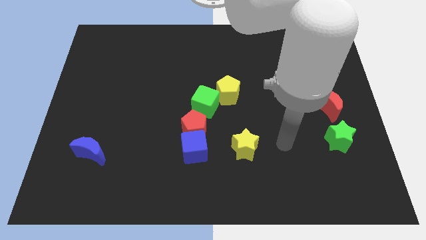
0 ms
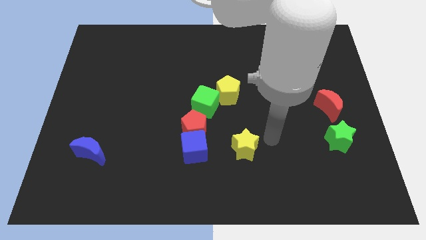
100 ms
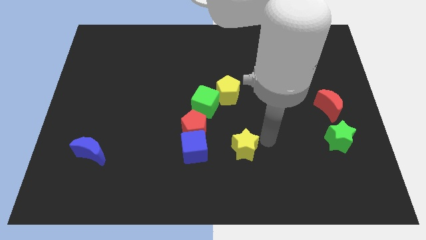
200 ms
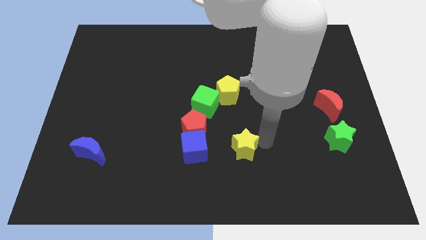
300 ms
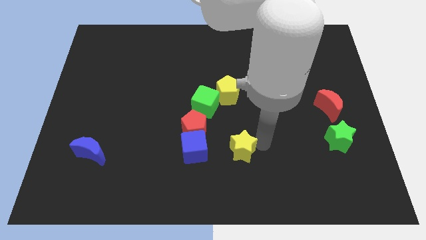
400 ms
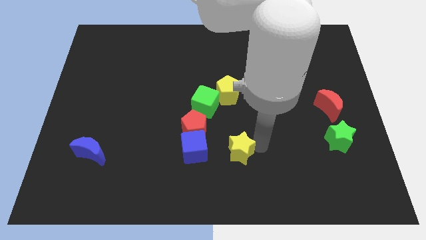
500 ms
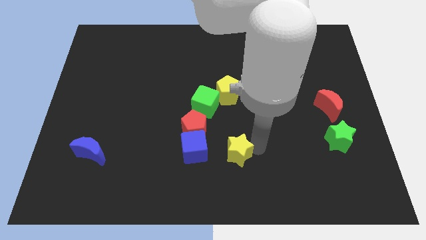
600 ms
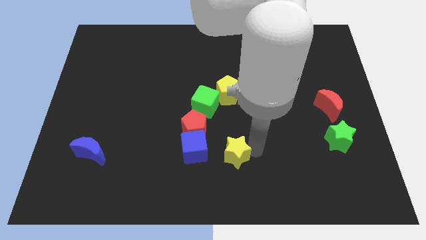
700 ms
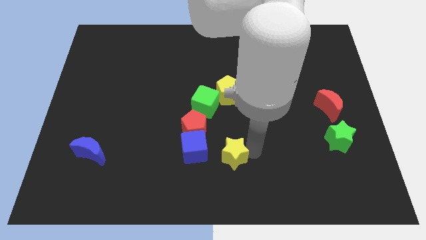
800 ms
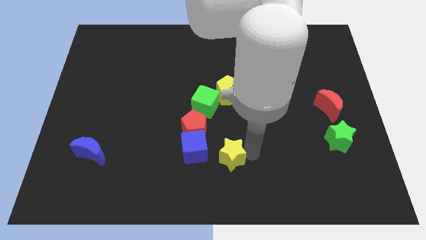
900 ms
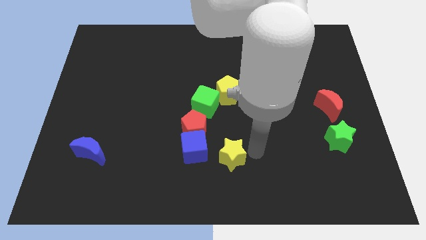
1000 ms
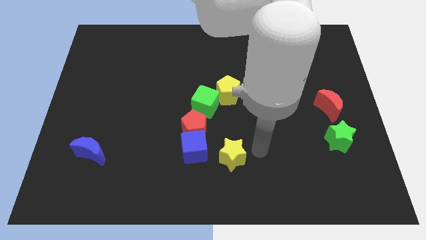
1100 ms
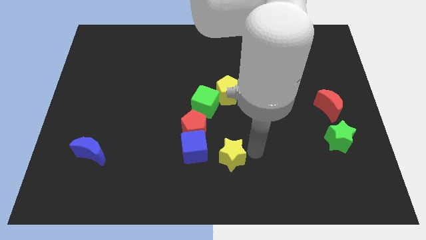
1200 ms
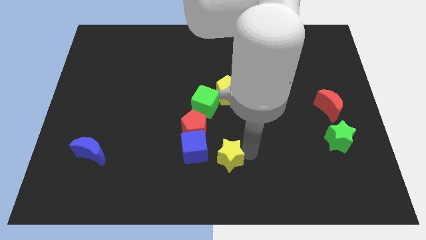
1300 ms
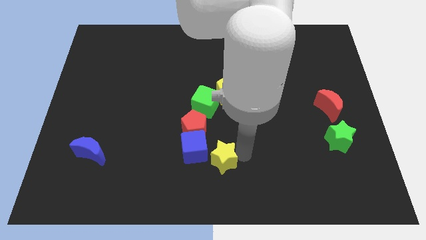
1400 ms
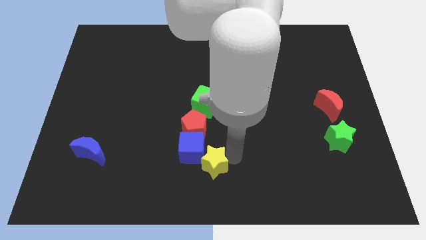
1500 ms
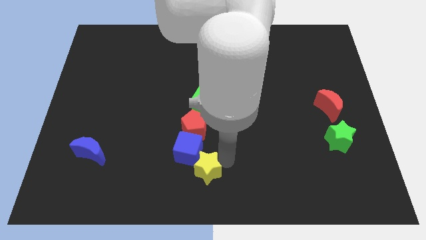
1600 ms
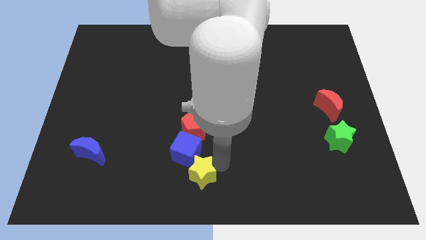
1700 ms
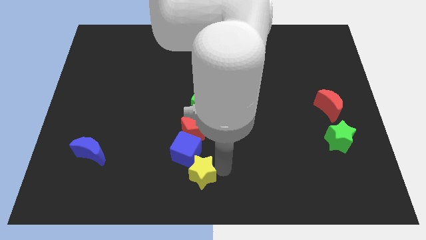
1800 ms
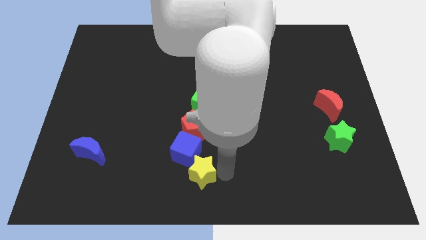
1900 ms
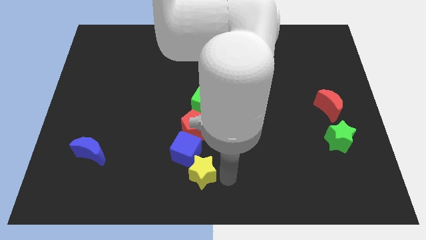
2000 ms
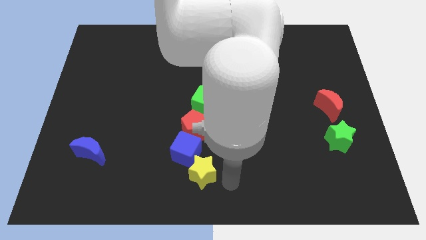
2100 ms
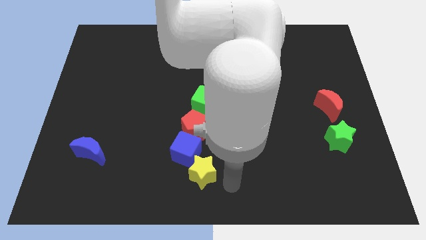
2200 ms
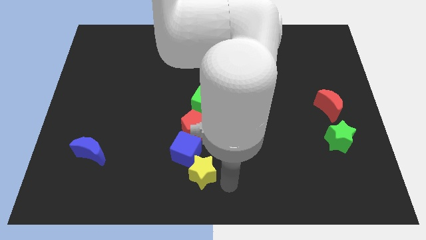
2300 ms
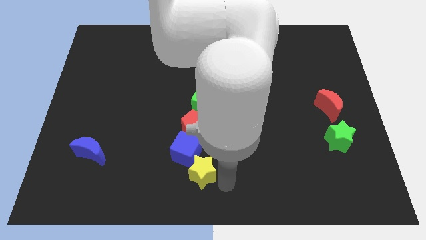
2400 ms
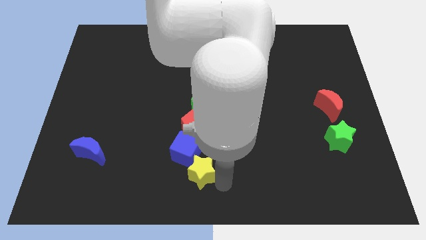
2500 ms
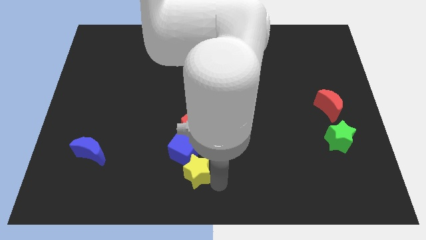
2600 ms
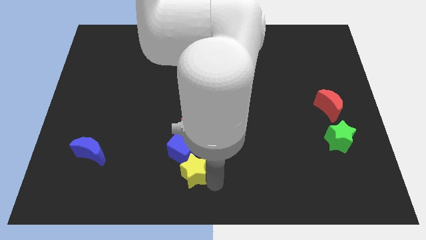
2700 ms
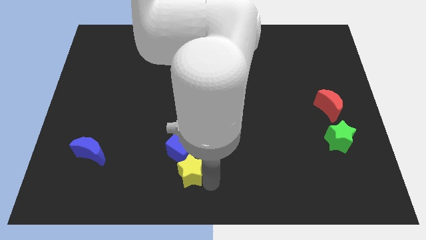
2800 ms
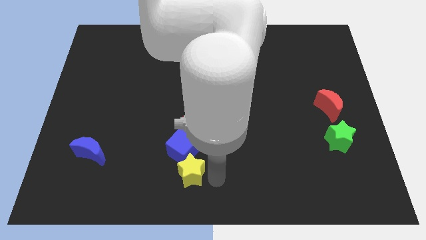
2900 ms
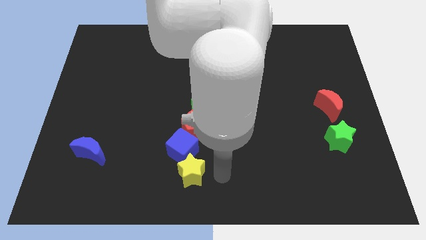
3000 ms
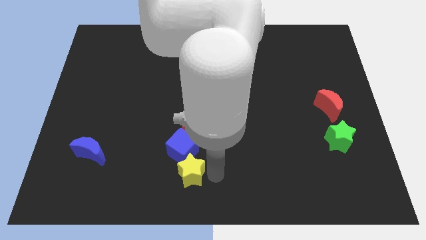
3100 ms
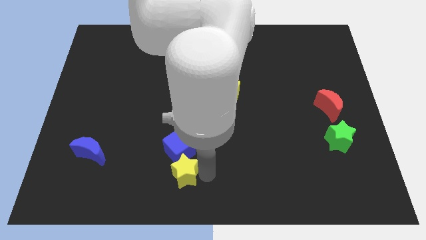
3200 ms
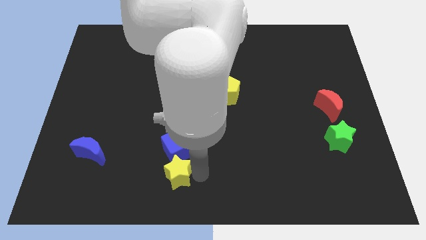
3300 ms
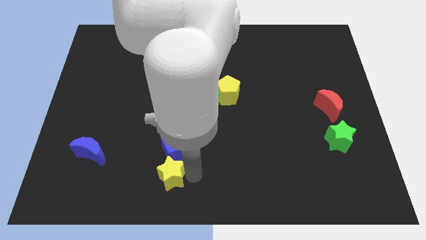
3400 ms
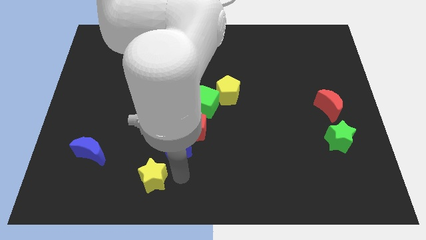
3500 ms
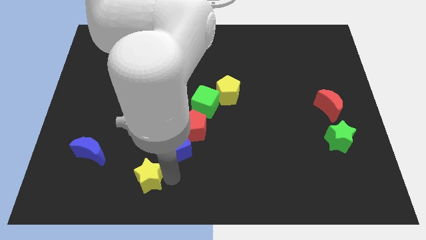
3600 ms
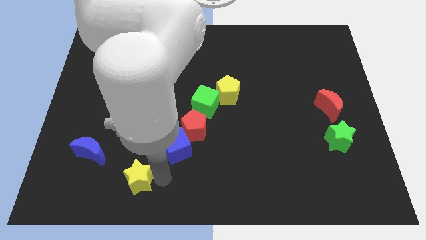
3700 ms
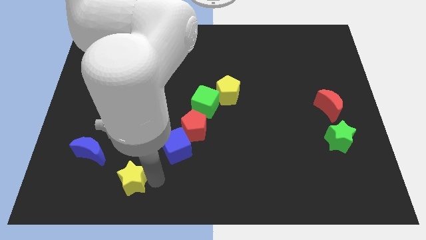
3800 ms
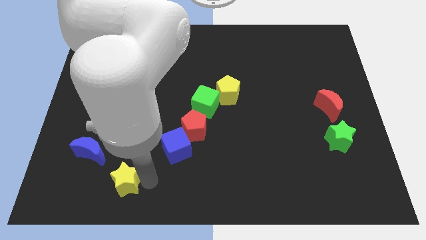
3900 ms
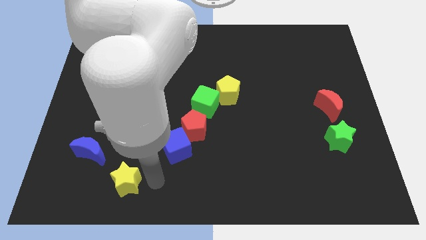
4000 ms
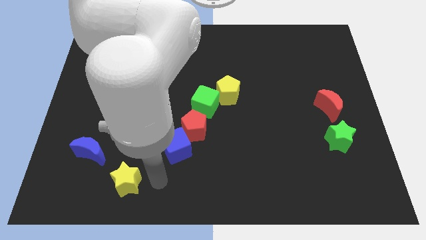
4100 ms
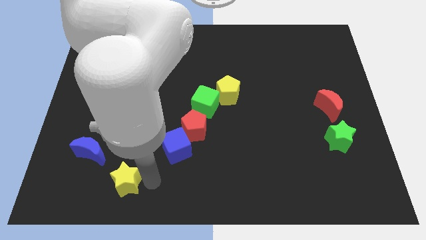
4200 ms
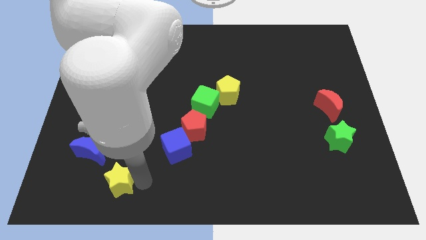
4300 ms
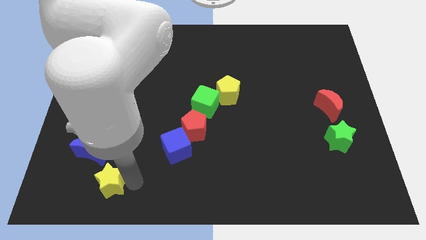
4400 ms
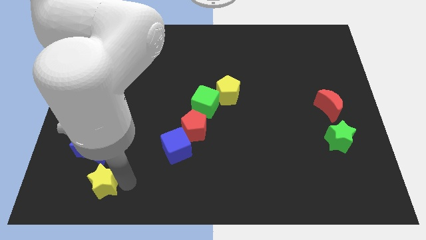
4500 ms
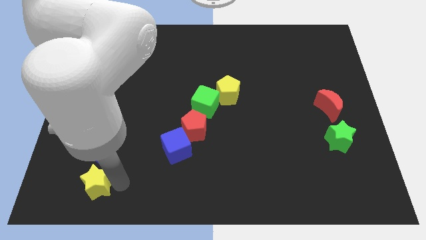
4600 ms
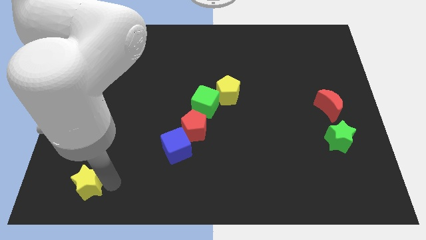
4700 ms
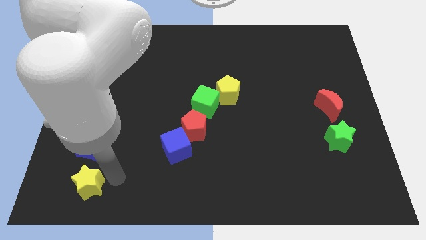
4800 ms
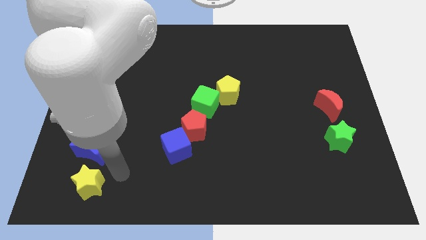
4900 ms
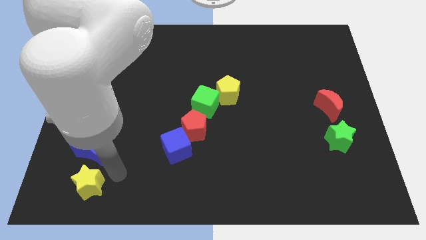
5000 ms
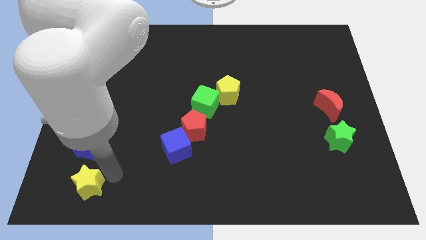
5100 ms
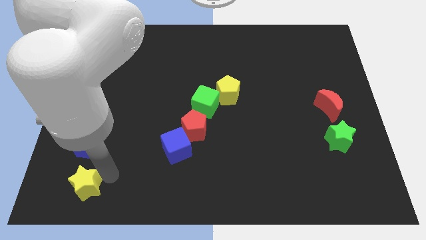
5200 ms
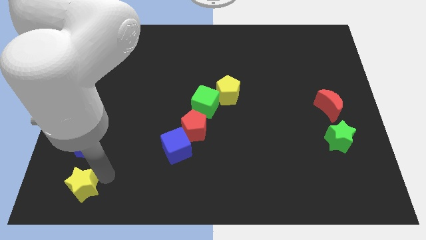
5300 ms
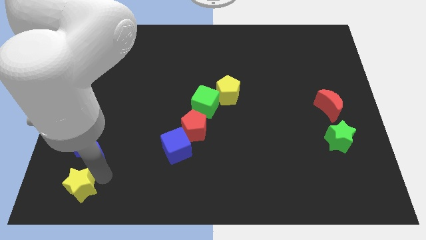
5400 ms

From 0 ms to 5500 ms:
move the yellow star to the bottom left of the board

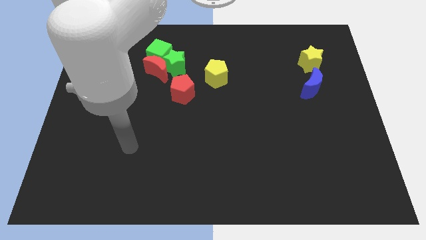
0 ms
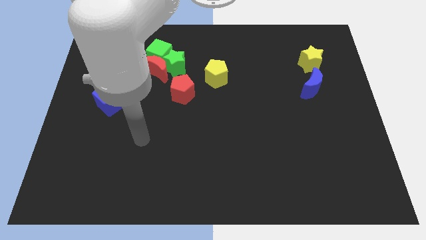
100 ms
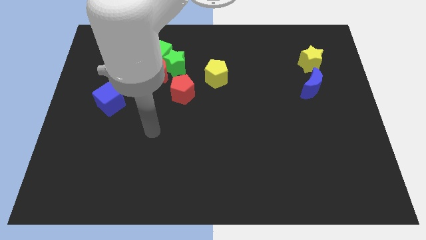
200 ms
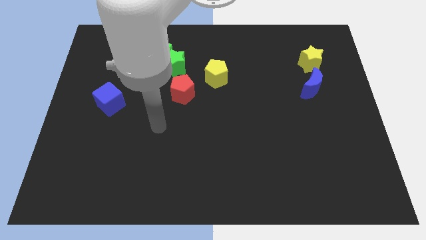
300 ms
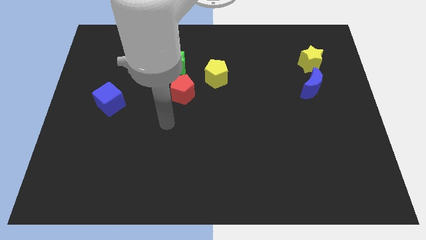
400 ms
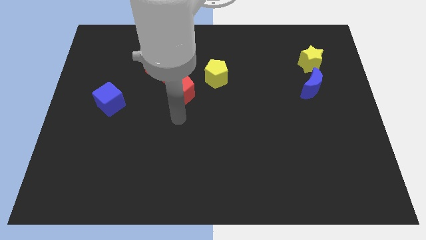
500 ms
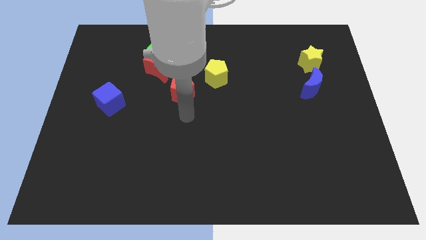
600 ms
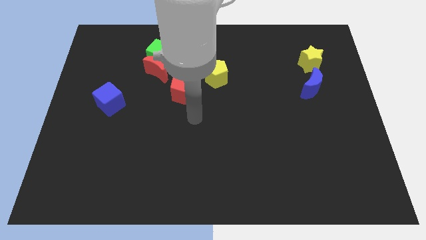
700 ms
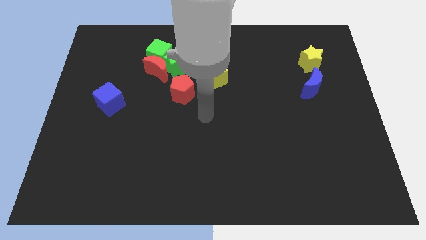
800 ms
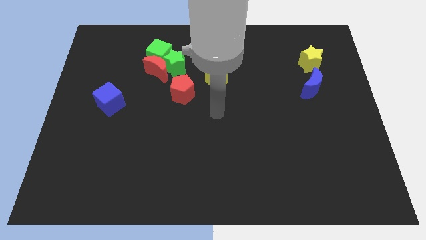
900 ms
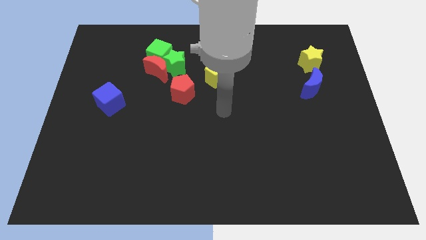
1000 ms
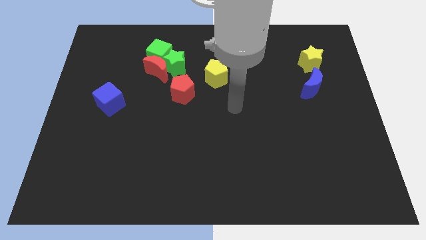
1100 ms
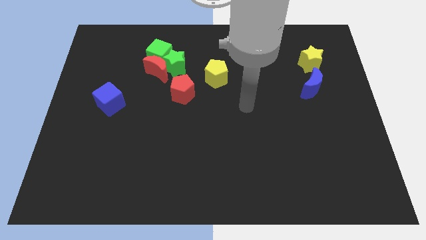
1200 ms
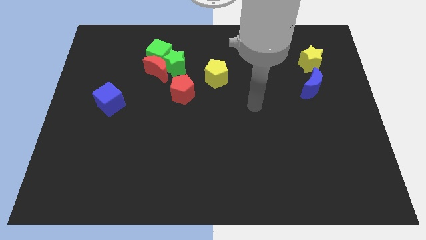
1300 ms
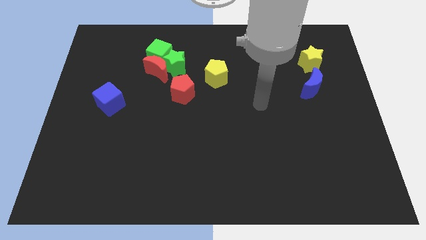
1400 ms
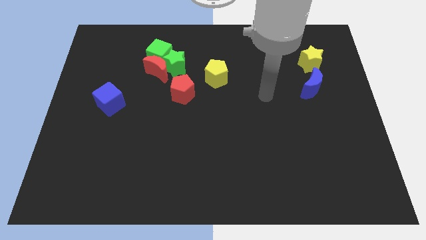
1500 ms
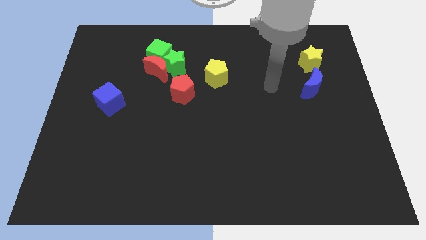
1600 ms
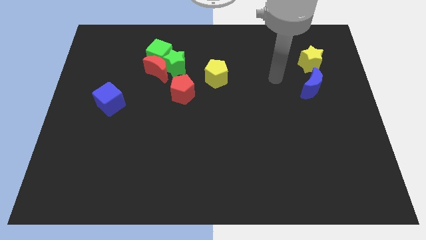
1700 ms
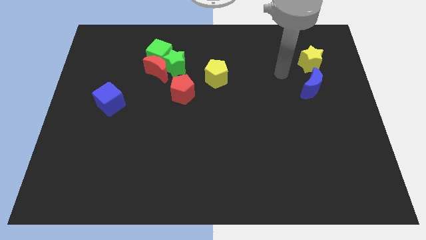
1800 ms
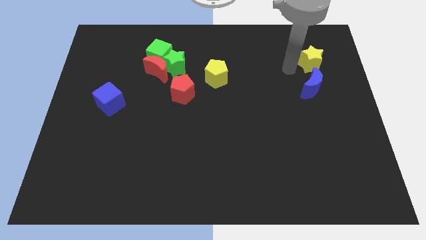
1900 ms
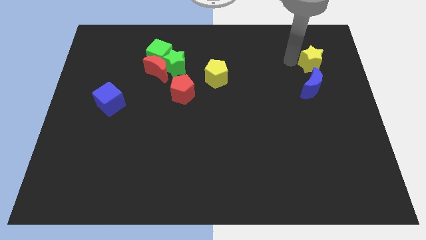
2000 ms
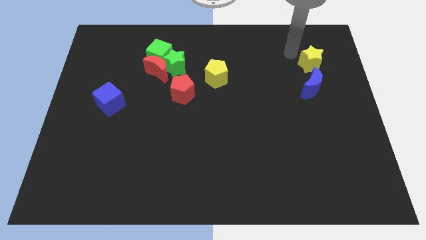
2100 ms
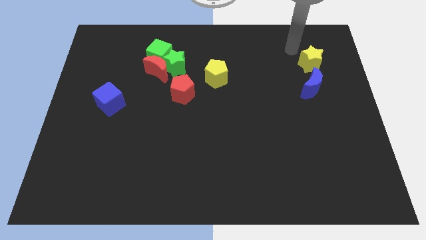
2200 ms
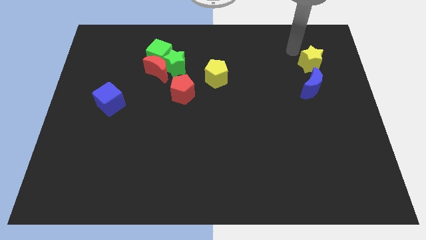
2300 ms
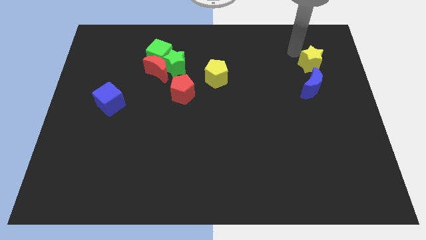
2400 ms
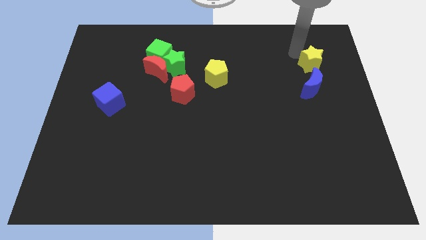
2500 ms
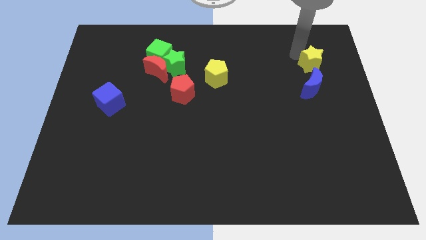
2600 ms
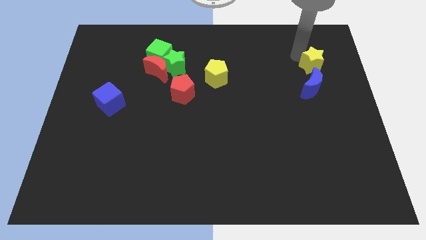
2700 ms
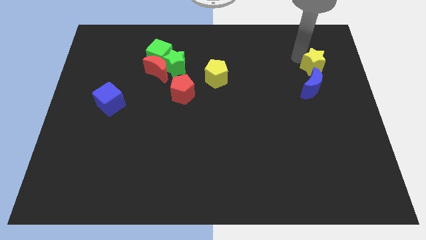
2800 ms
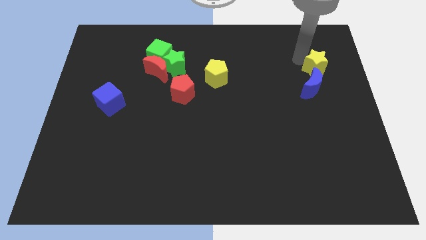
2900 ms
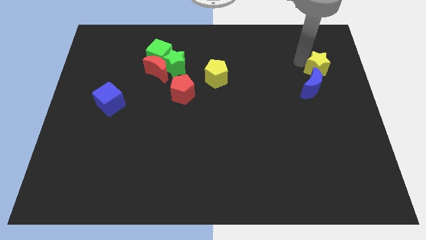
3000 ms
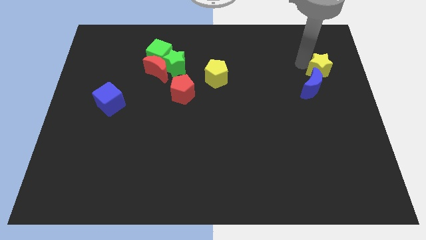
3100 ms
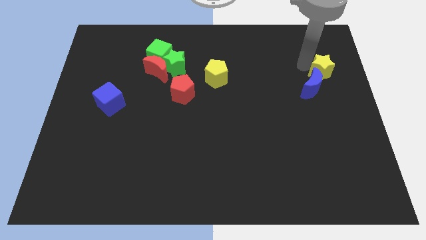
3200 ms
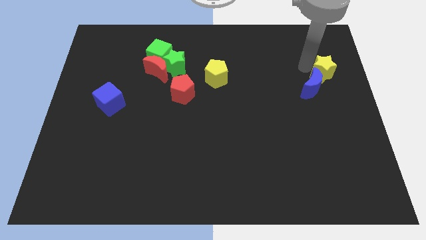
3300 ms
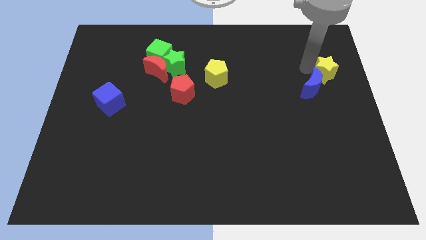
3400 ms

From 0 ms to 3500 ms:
push the yellow star to the right side
